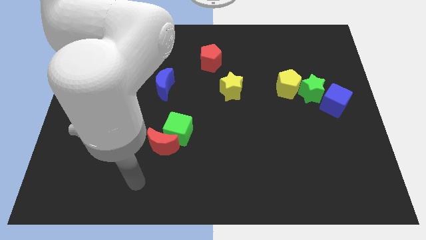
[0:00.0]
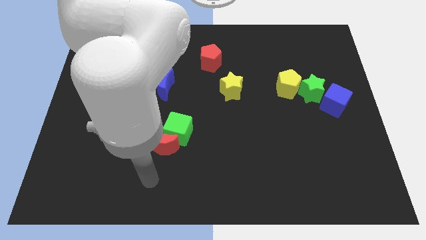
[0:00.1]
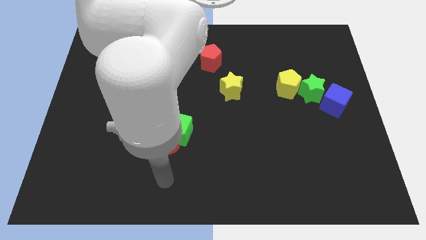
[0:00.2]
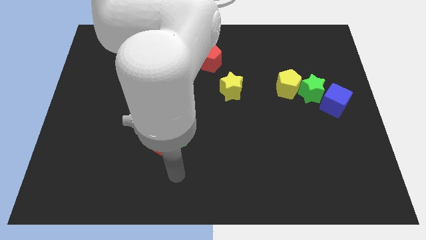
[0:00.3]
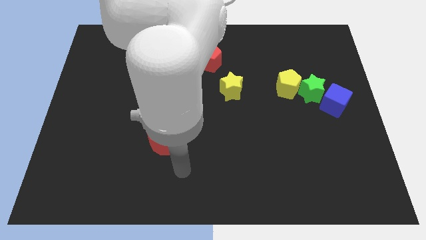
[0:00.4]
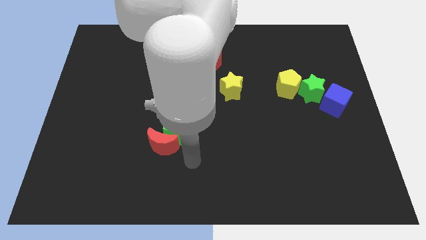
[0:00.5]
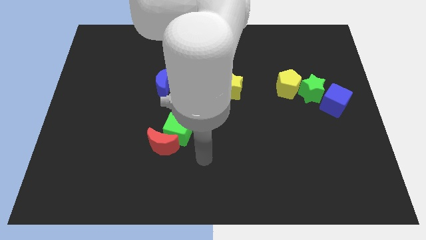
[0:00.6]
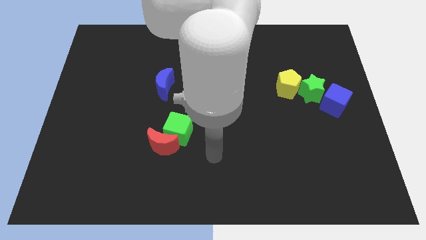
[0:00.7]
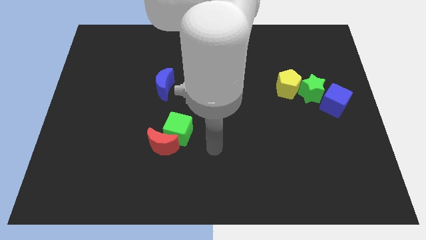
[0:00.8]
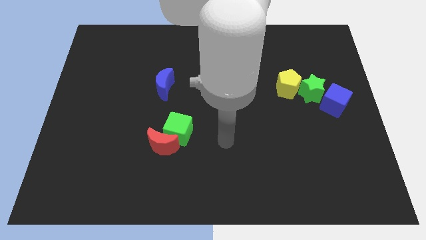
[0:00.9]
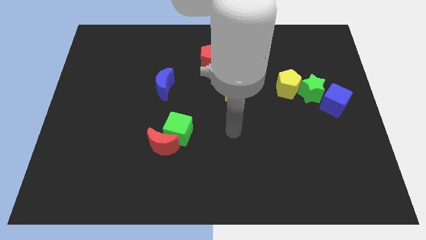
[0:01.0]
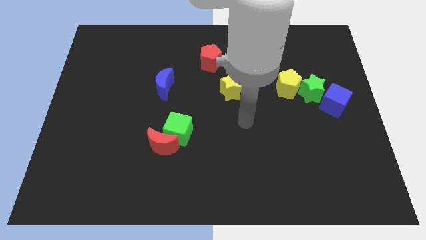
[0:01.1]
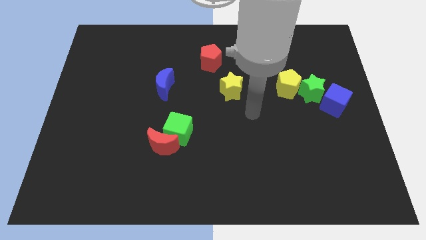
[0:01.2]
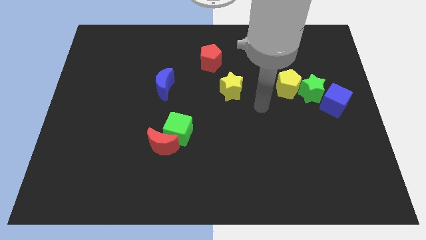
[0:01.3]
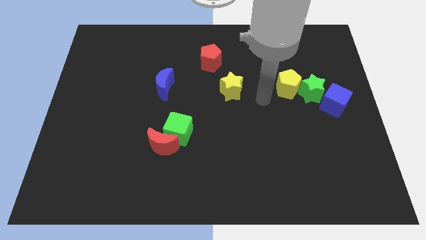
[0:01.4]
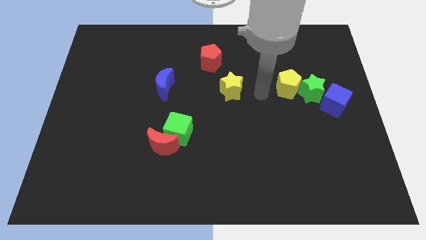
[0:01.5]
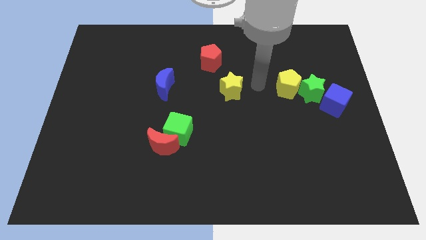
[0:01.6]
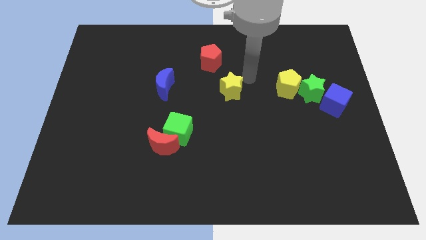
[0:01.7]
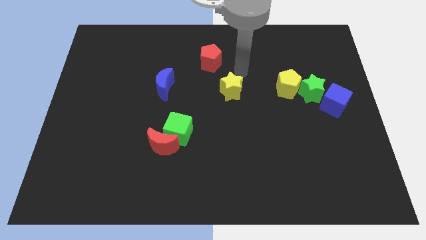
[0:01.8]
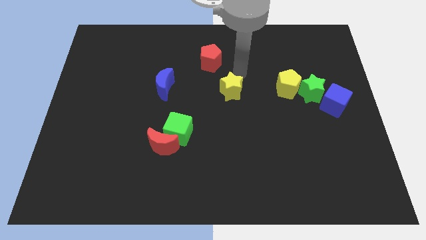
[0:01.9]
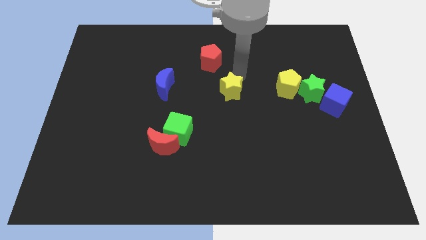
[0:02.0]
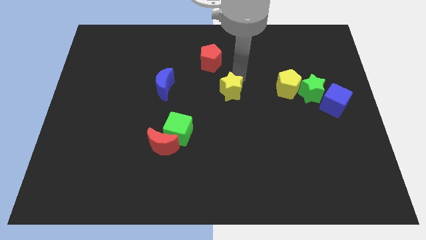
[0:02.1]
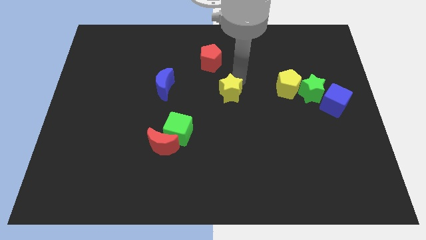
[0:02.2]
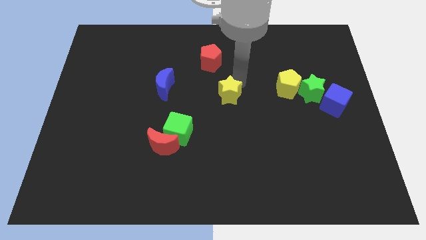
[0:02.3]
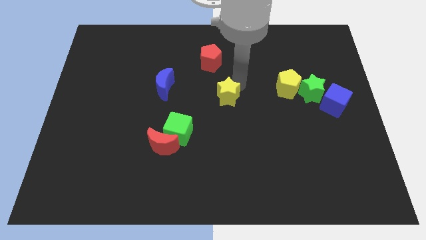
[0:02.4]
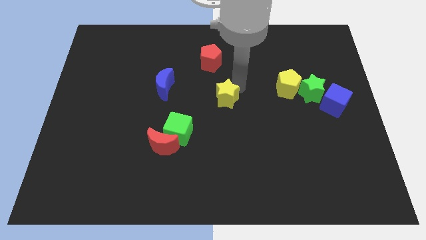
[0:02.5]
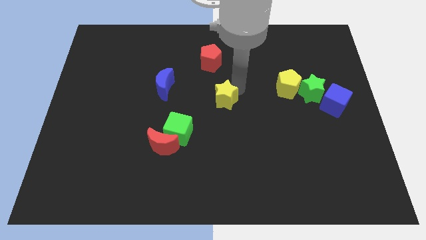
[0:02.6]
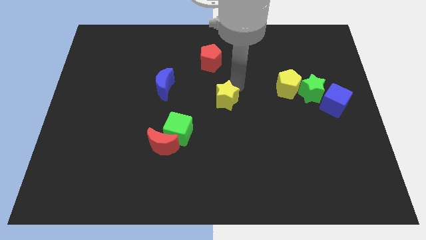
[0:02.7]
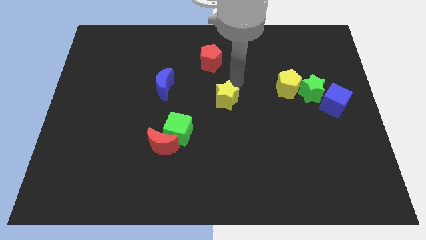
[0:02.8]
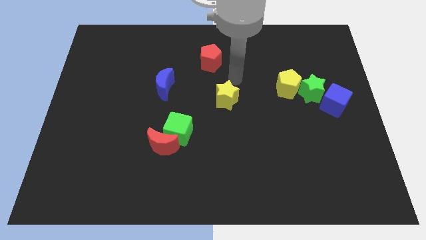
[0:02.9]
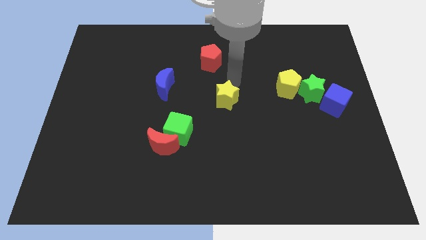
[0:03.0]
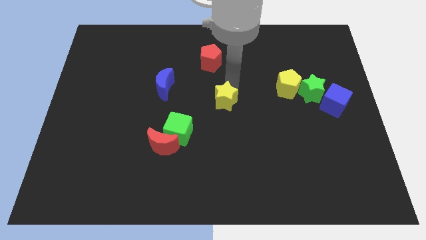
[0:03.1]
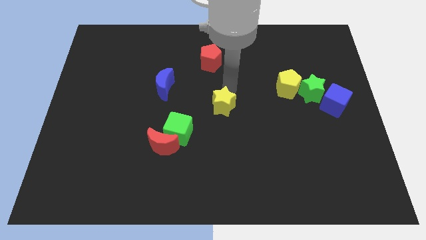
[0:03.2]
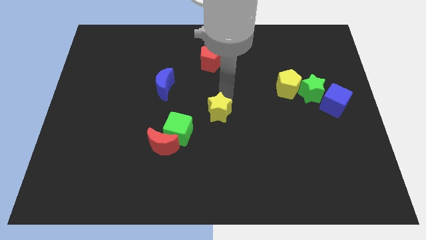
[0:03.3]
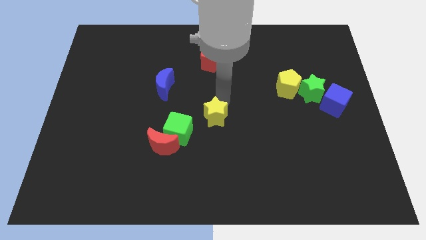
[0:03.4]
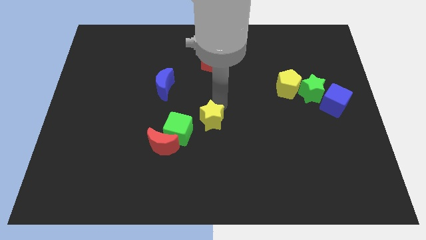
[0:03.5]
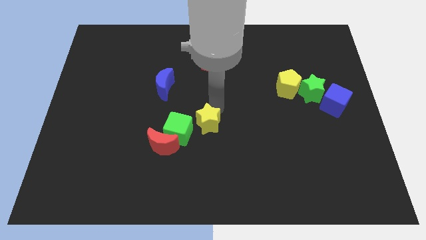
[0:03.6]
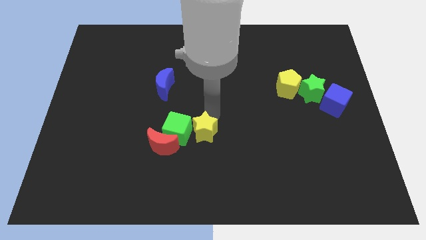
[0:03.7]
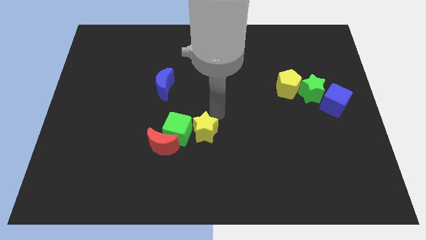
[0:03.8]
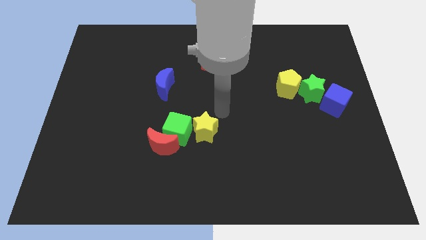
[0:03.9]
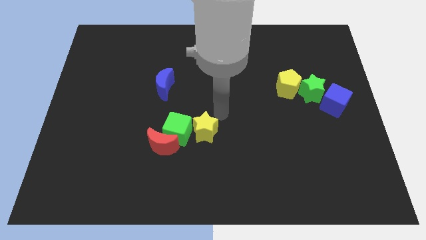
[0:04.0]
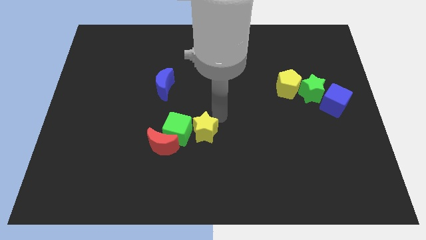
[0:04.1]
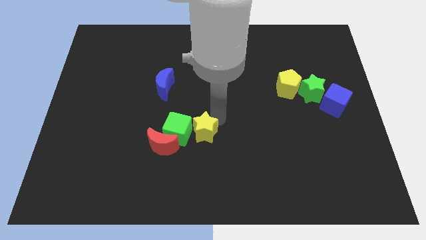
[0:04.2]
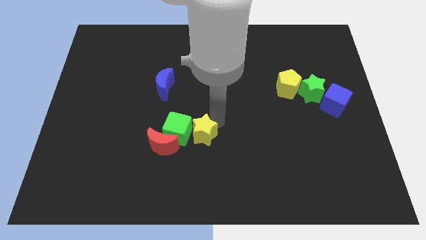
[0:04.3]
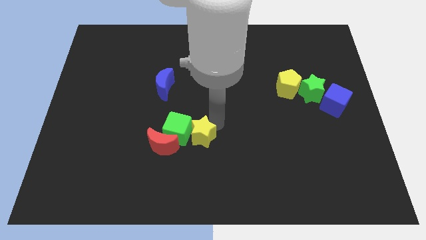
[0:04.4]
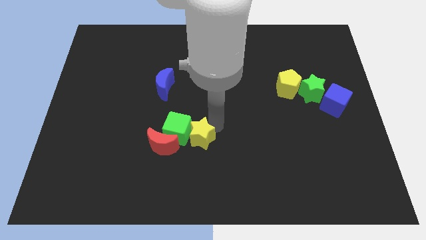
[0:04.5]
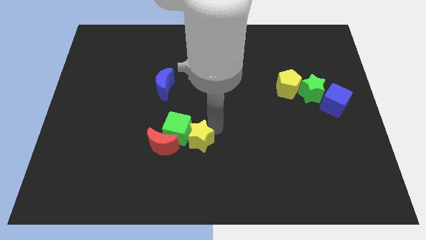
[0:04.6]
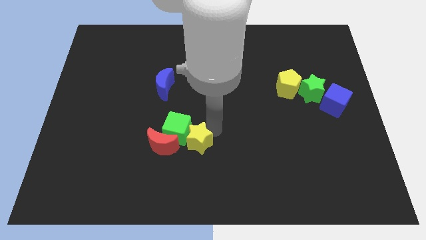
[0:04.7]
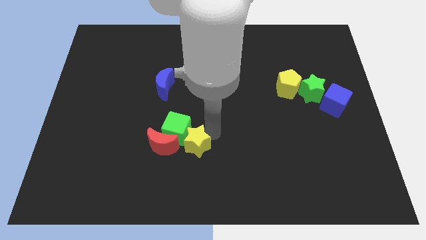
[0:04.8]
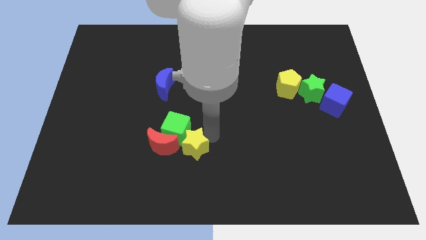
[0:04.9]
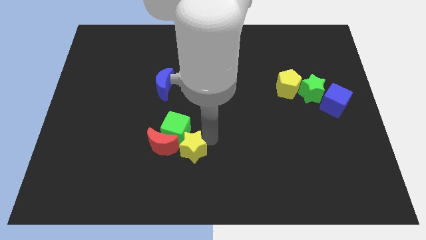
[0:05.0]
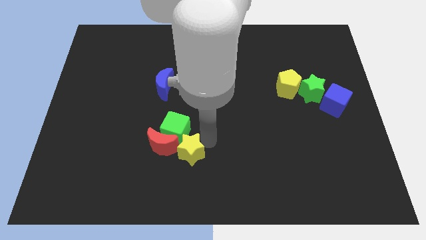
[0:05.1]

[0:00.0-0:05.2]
slide the yellow star close to the red moon

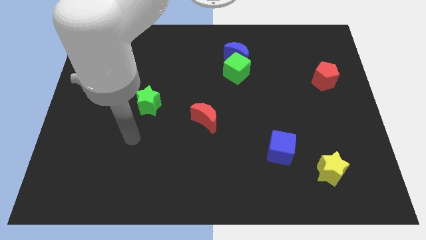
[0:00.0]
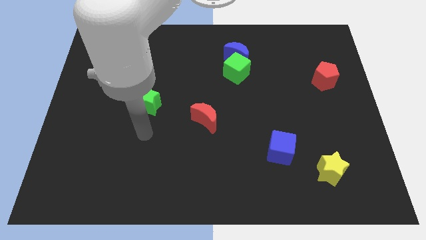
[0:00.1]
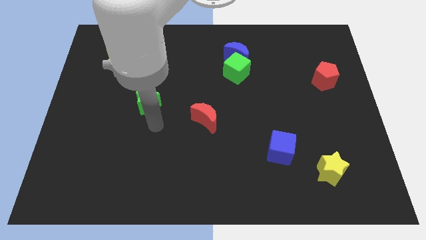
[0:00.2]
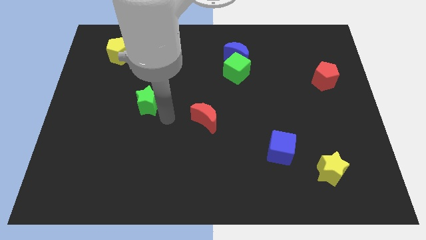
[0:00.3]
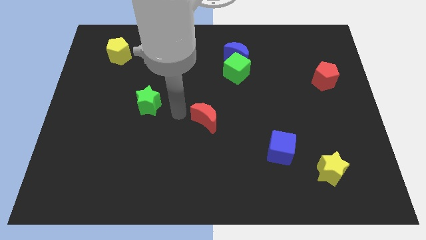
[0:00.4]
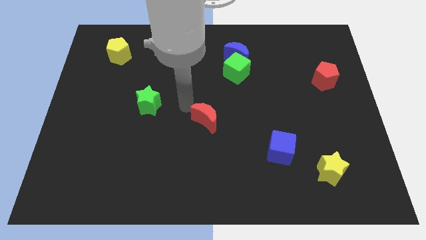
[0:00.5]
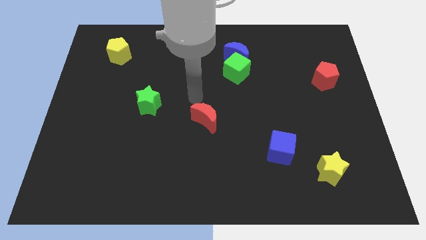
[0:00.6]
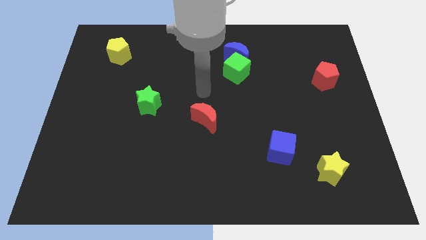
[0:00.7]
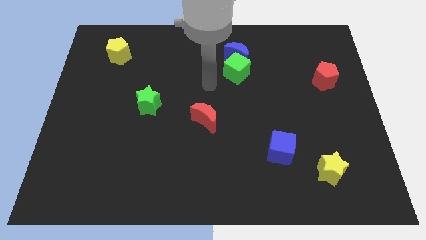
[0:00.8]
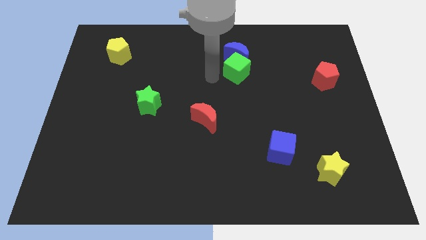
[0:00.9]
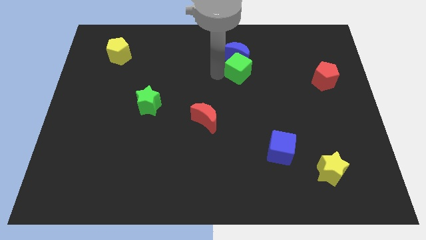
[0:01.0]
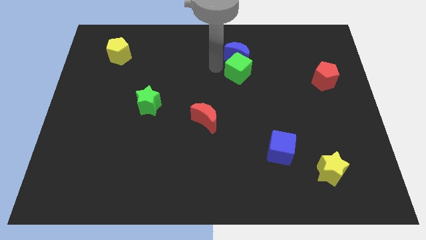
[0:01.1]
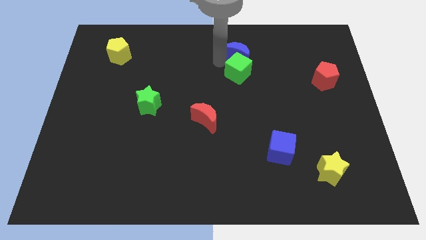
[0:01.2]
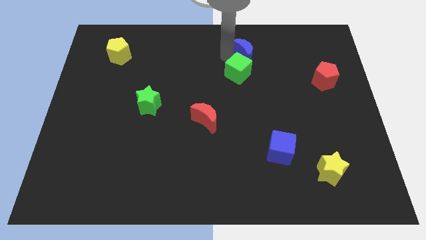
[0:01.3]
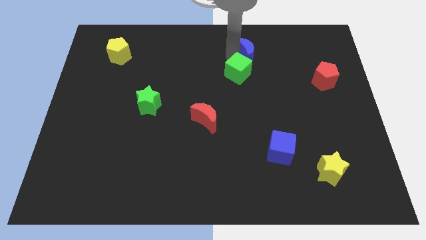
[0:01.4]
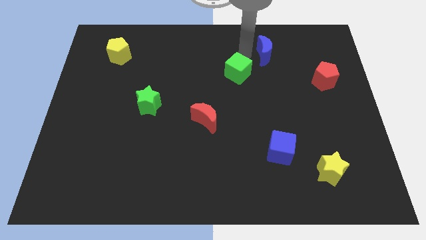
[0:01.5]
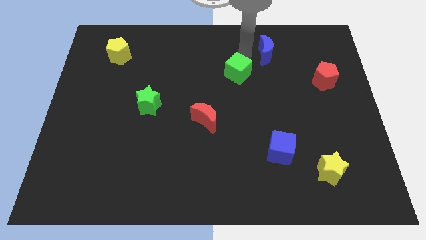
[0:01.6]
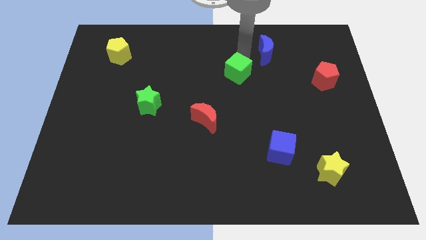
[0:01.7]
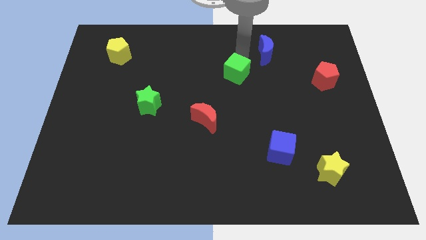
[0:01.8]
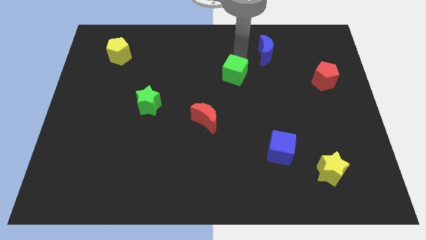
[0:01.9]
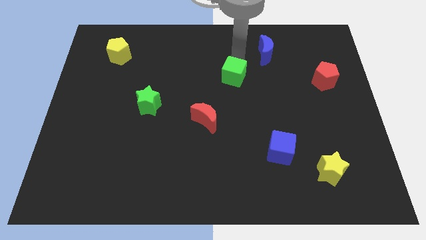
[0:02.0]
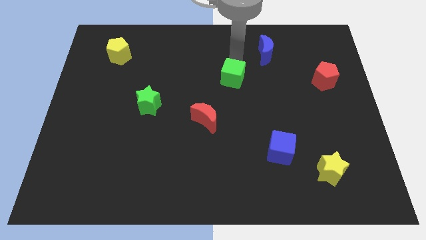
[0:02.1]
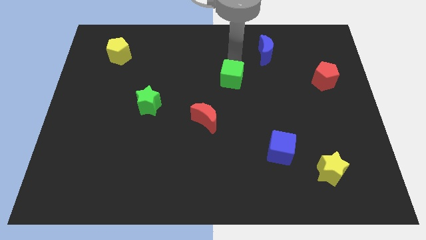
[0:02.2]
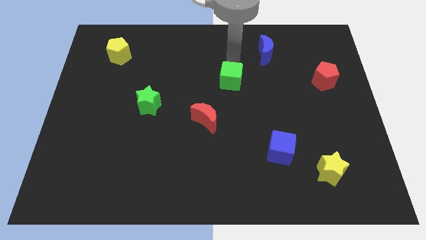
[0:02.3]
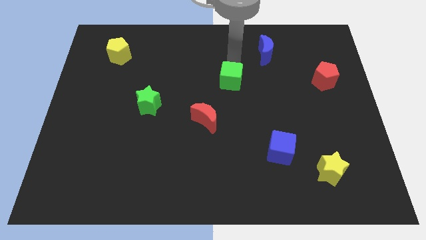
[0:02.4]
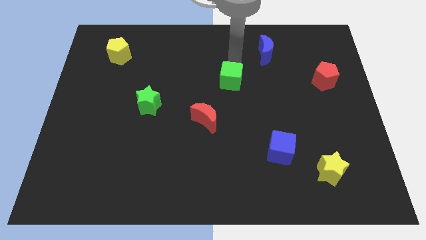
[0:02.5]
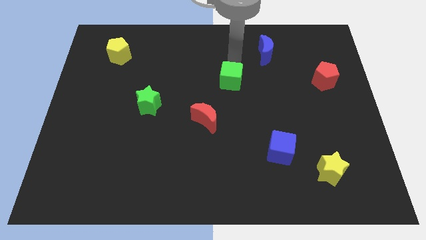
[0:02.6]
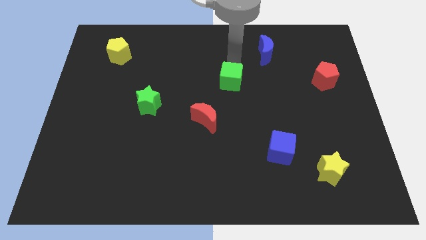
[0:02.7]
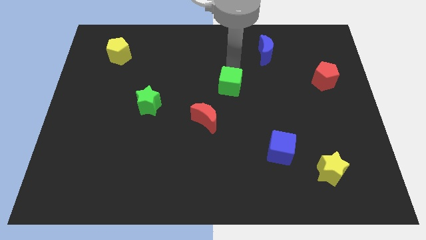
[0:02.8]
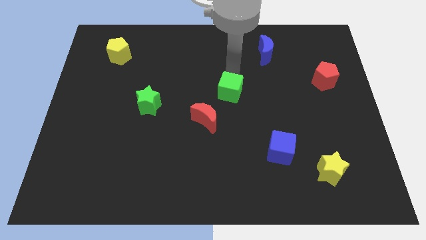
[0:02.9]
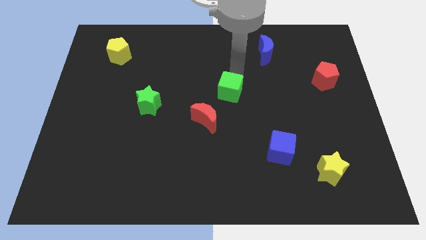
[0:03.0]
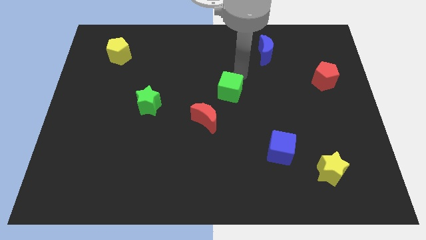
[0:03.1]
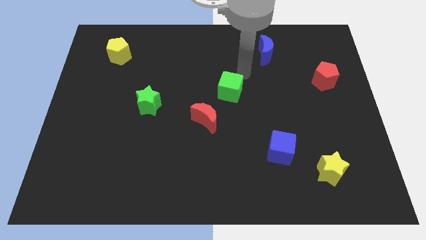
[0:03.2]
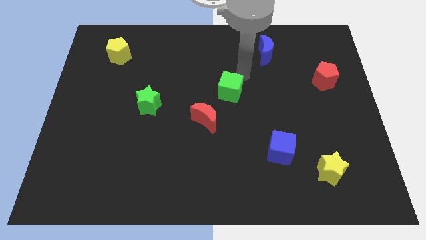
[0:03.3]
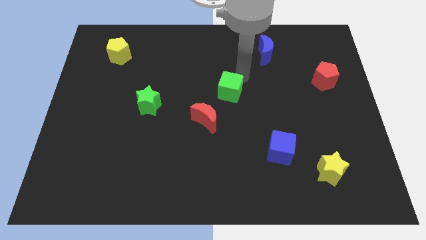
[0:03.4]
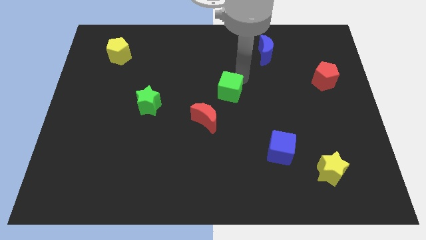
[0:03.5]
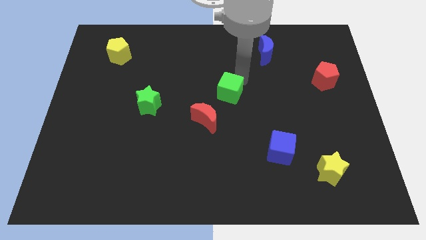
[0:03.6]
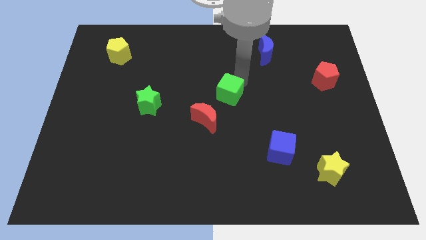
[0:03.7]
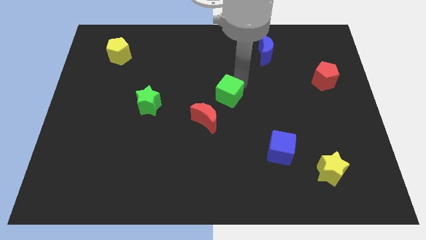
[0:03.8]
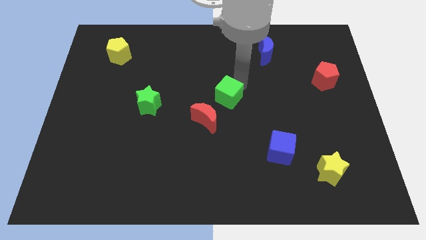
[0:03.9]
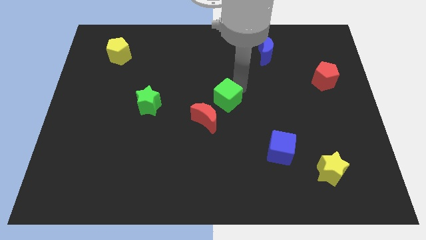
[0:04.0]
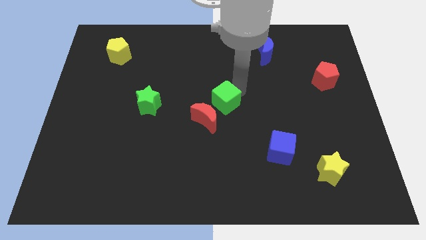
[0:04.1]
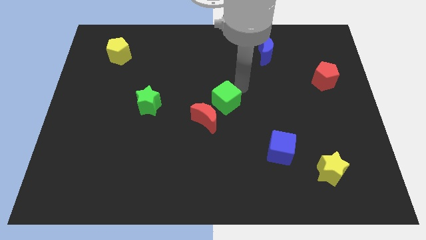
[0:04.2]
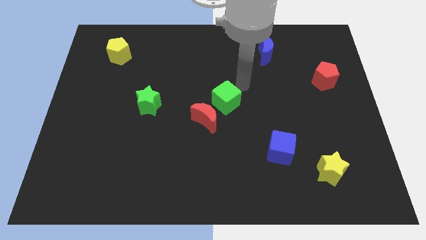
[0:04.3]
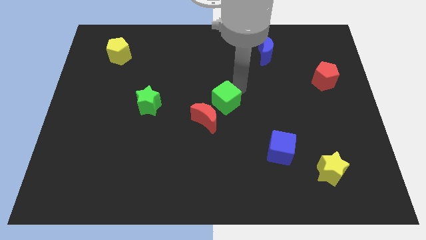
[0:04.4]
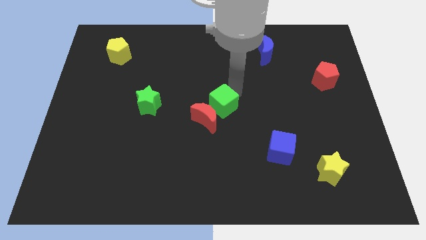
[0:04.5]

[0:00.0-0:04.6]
move the green cube close to the red moon
